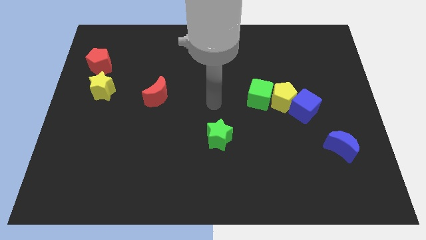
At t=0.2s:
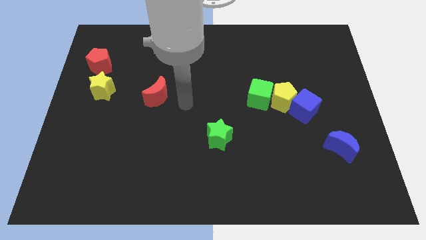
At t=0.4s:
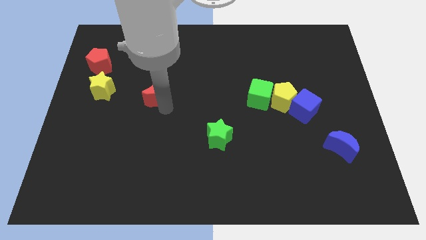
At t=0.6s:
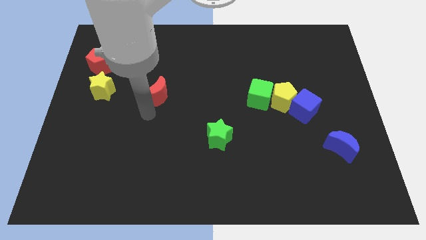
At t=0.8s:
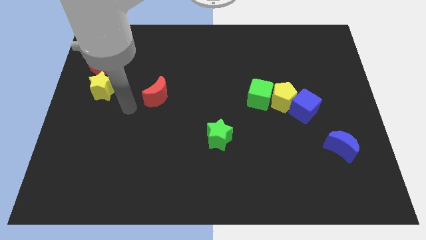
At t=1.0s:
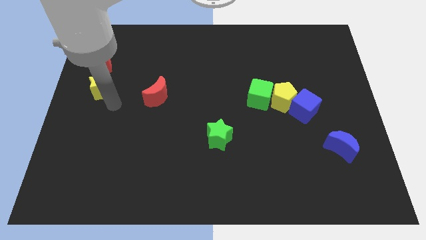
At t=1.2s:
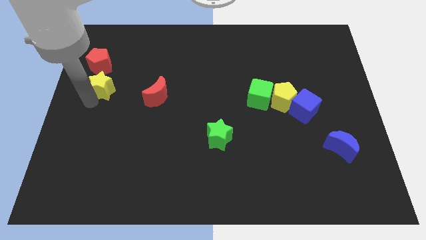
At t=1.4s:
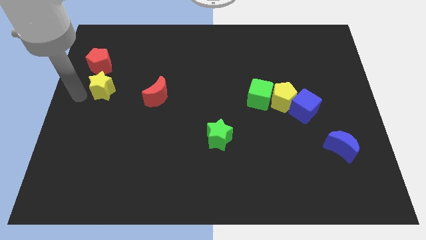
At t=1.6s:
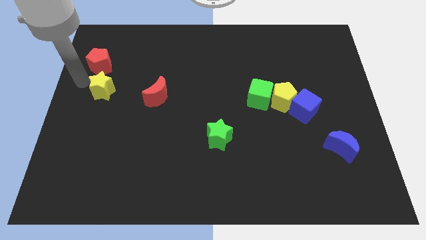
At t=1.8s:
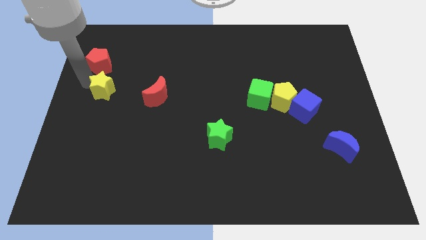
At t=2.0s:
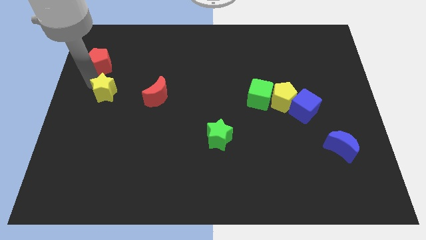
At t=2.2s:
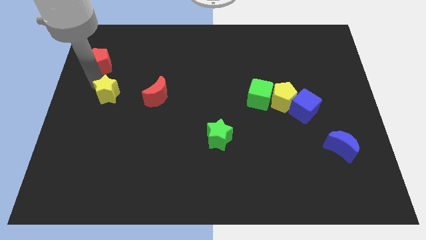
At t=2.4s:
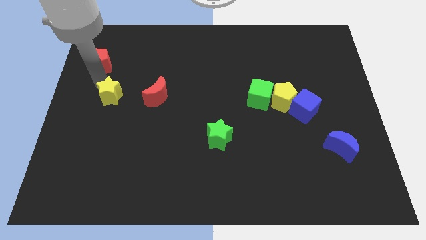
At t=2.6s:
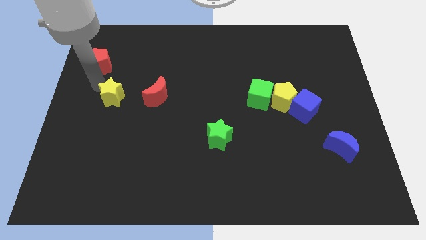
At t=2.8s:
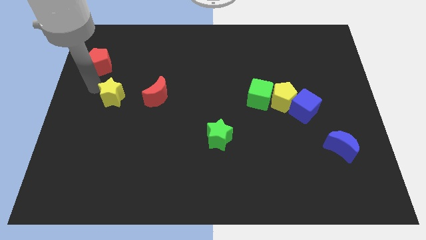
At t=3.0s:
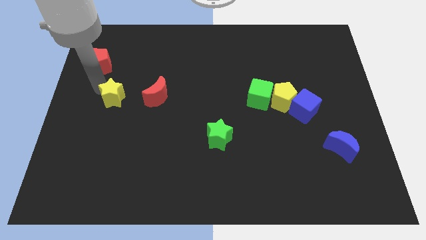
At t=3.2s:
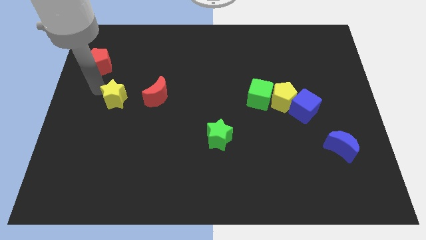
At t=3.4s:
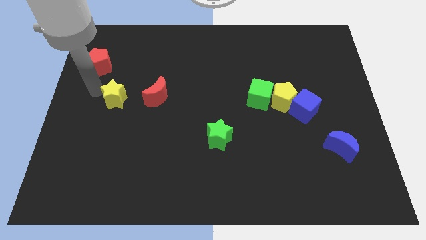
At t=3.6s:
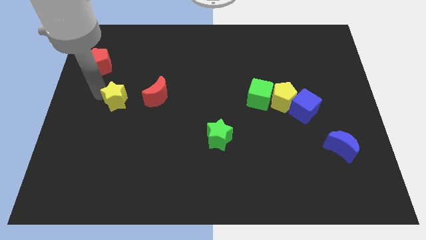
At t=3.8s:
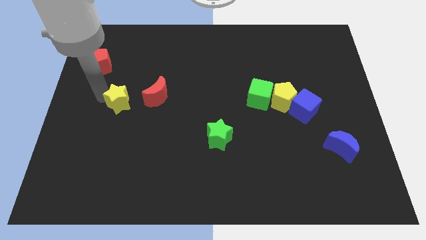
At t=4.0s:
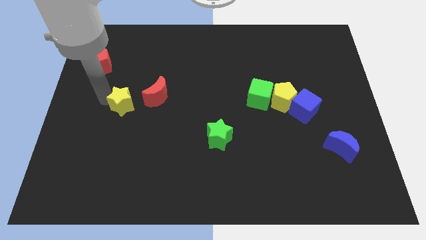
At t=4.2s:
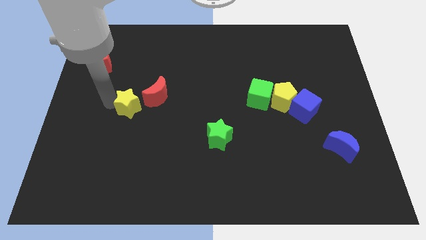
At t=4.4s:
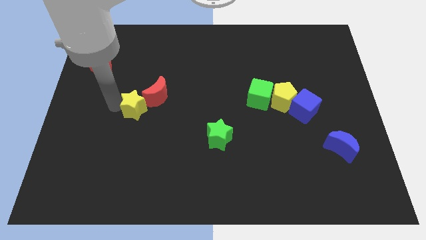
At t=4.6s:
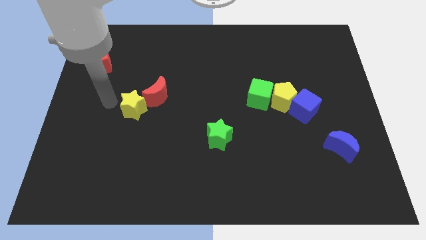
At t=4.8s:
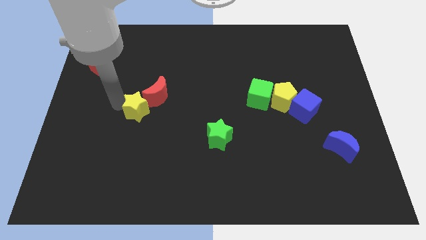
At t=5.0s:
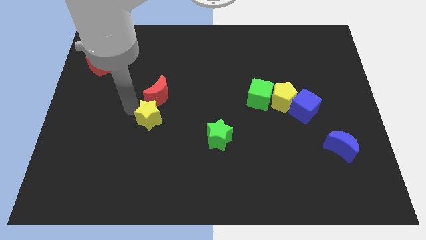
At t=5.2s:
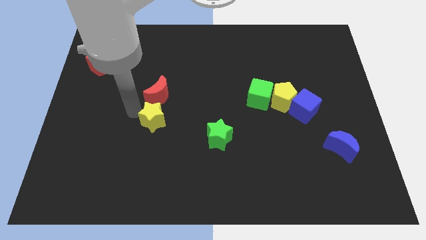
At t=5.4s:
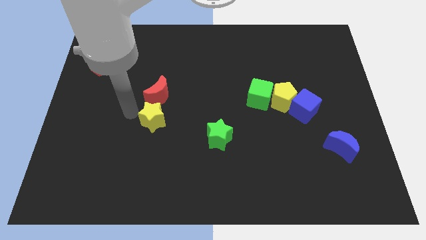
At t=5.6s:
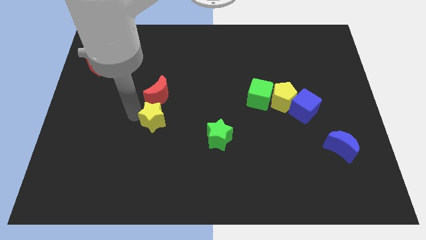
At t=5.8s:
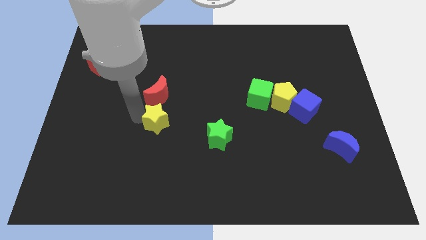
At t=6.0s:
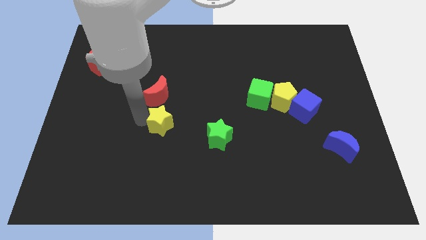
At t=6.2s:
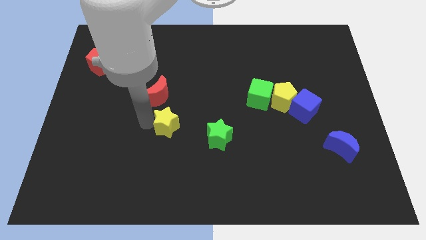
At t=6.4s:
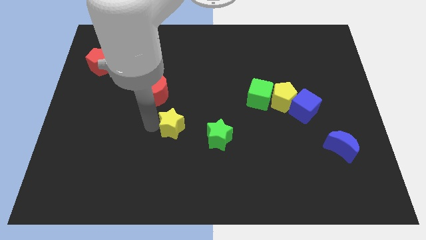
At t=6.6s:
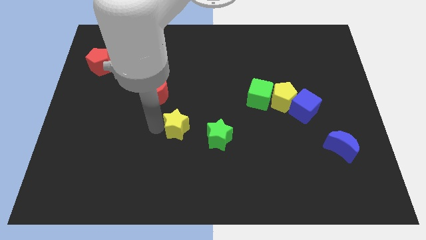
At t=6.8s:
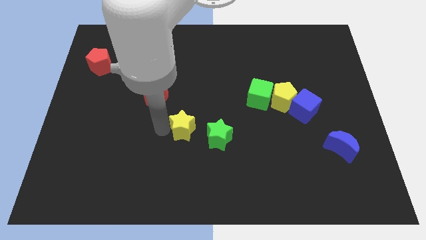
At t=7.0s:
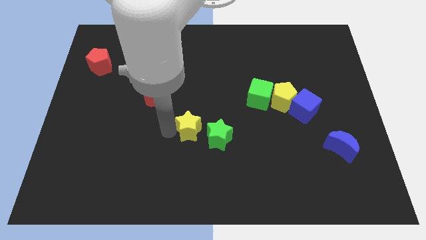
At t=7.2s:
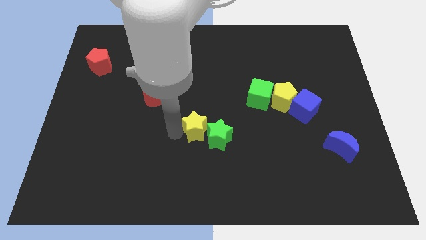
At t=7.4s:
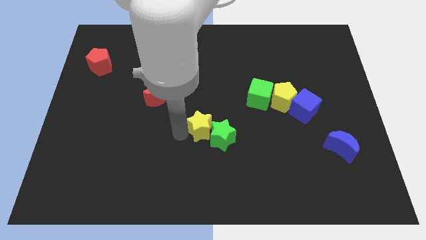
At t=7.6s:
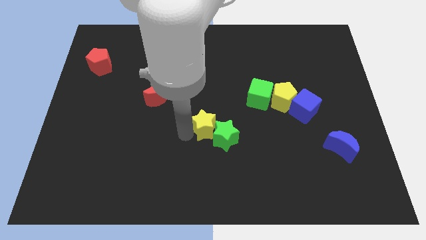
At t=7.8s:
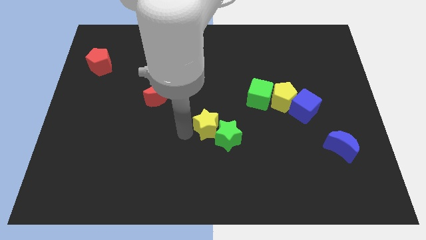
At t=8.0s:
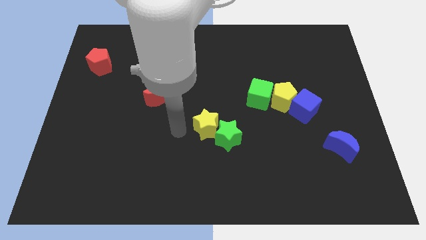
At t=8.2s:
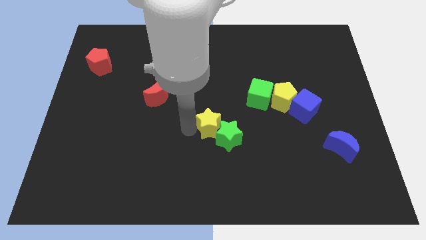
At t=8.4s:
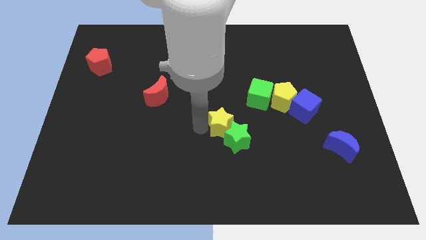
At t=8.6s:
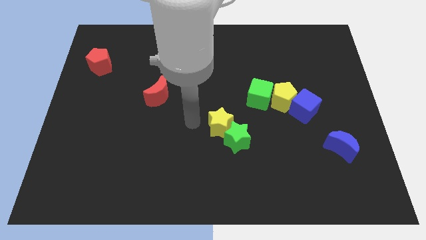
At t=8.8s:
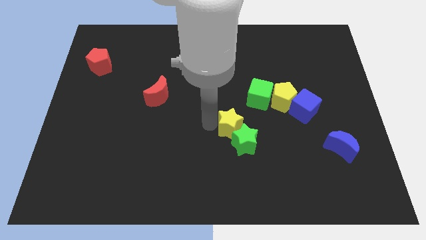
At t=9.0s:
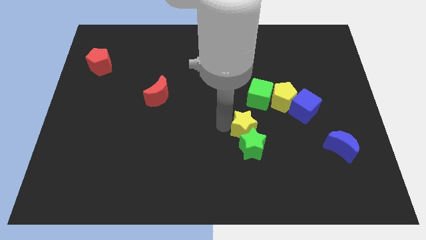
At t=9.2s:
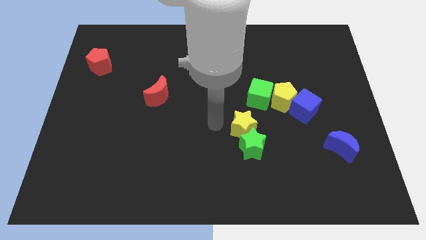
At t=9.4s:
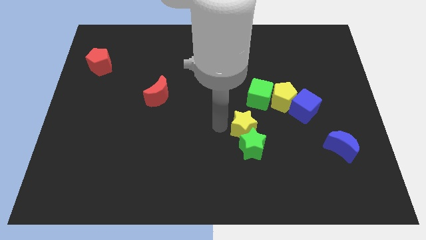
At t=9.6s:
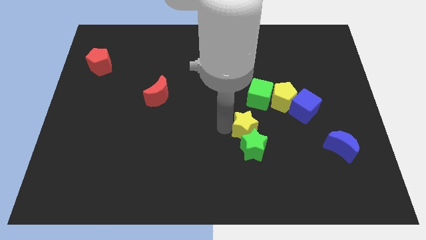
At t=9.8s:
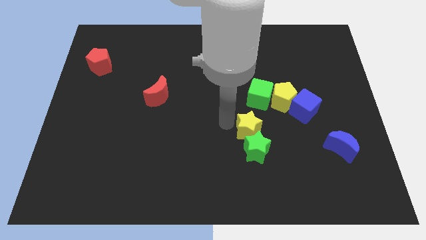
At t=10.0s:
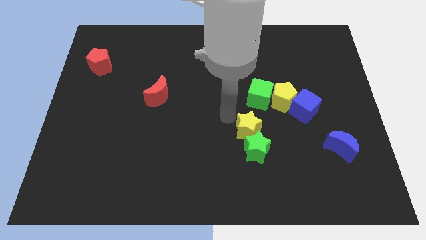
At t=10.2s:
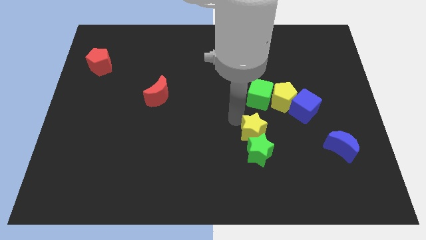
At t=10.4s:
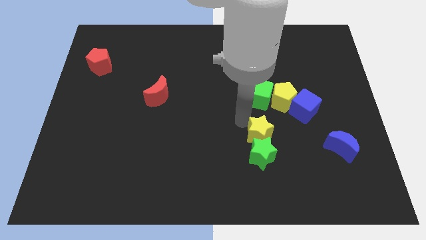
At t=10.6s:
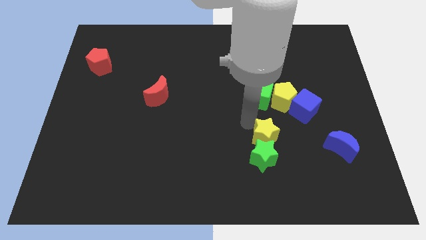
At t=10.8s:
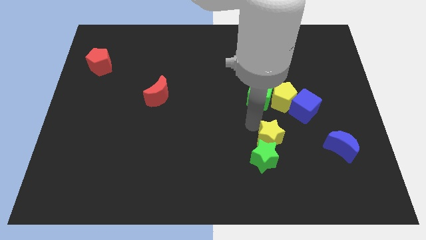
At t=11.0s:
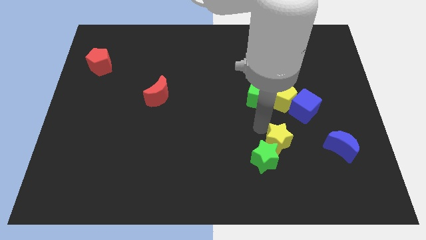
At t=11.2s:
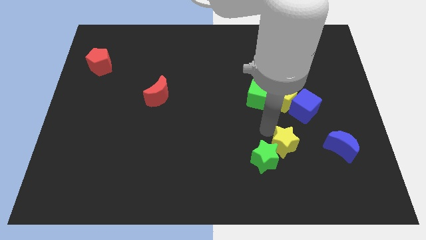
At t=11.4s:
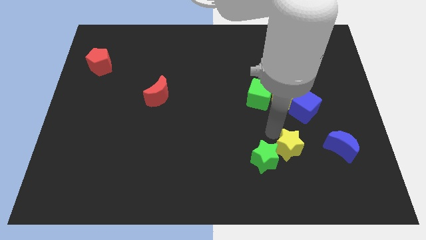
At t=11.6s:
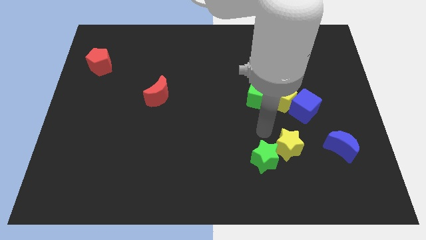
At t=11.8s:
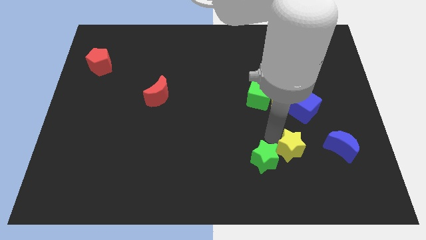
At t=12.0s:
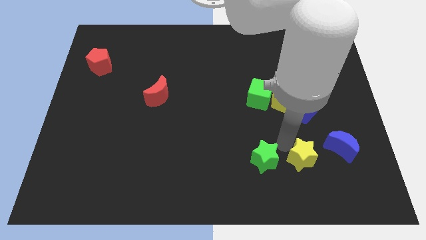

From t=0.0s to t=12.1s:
slide the yellow star diagonally down and to the left of the blue moon

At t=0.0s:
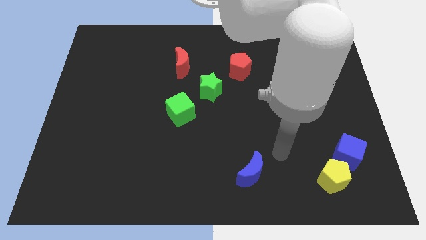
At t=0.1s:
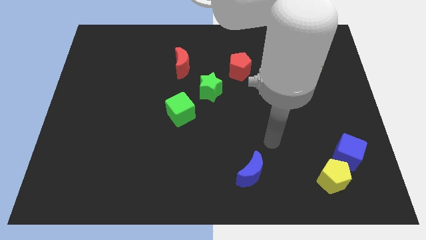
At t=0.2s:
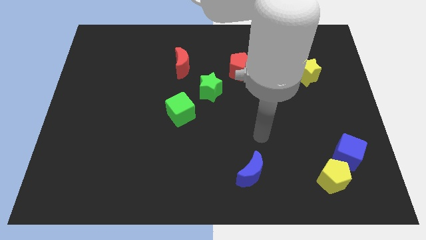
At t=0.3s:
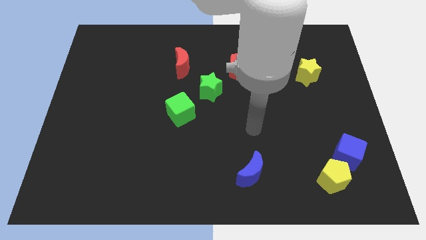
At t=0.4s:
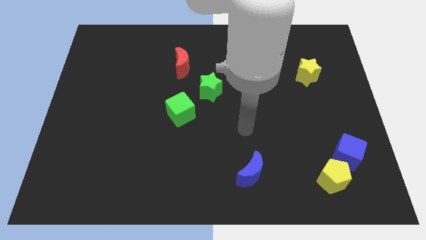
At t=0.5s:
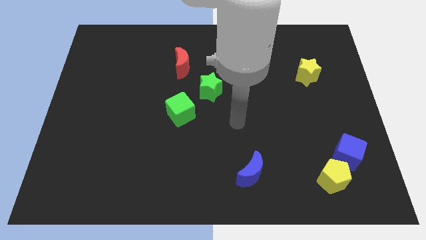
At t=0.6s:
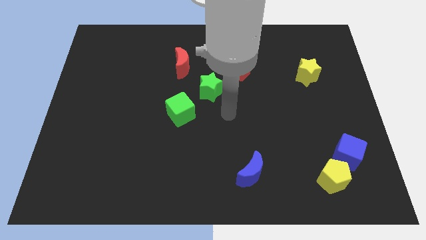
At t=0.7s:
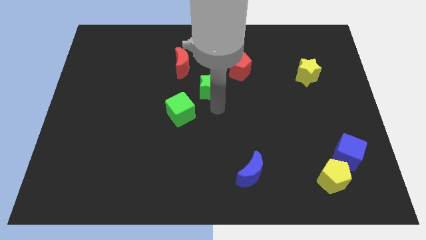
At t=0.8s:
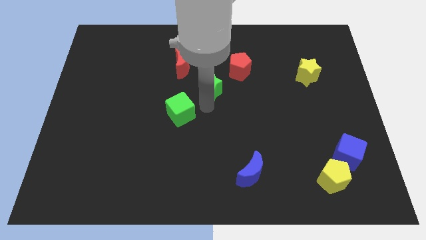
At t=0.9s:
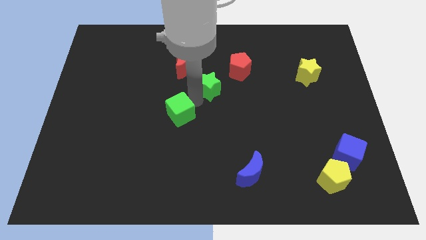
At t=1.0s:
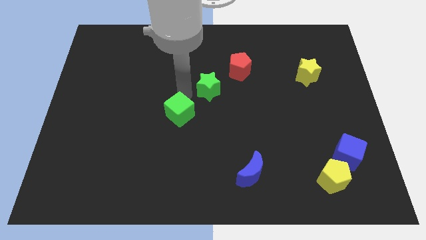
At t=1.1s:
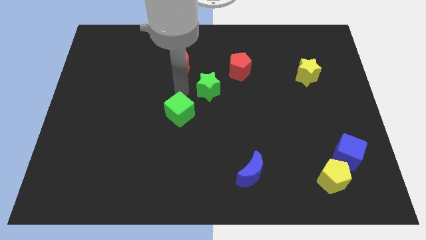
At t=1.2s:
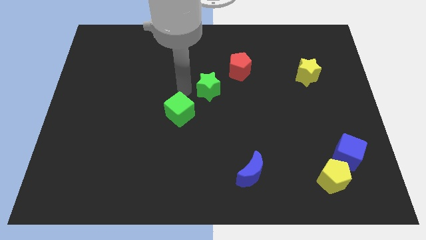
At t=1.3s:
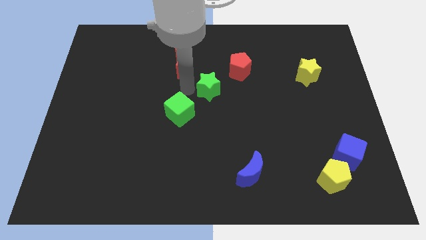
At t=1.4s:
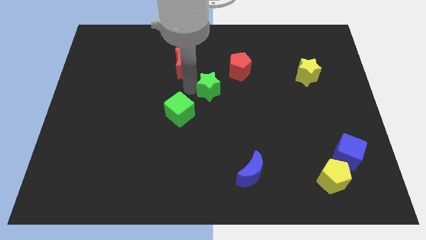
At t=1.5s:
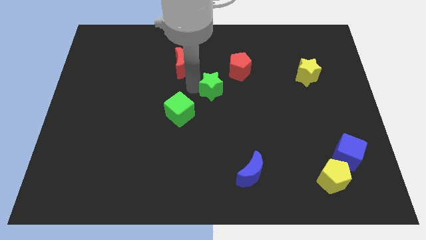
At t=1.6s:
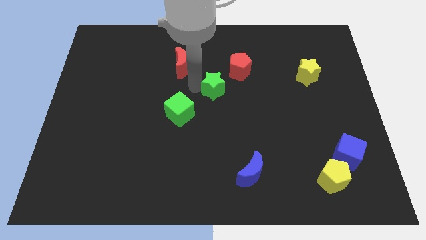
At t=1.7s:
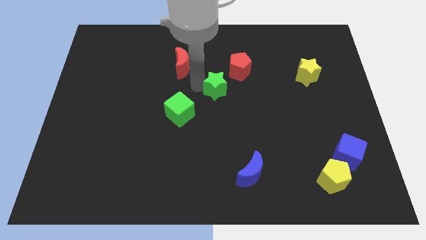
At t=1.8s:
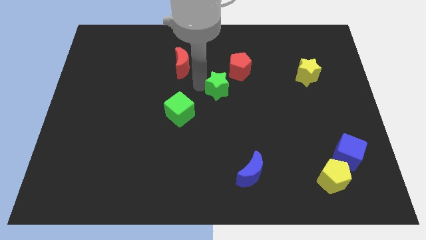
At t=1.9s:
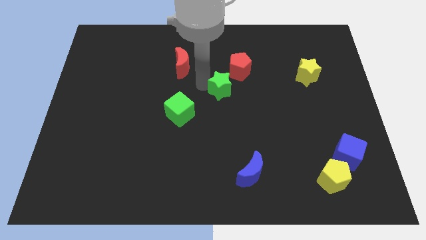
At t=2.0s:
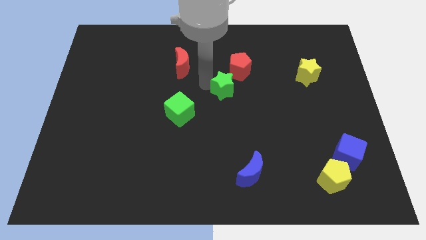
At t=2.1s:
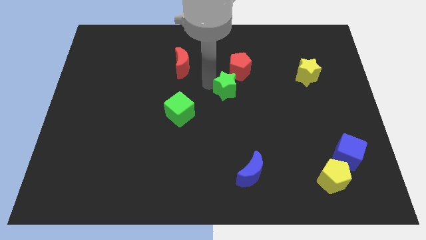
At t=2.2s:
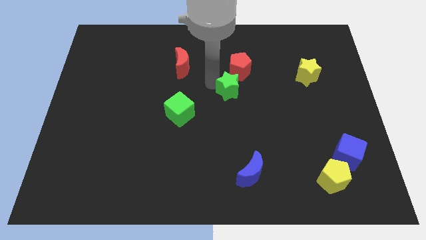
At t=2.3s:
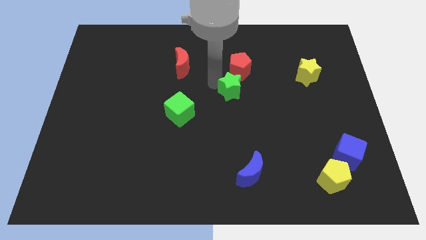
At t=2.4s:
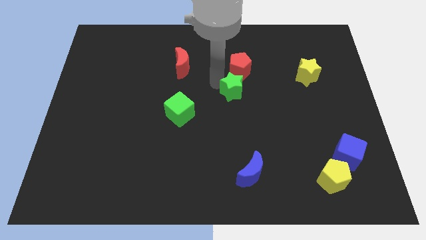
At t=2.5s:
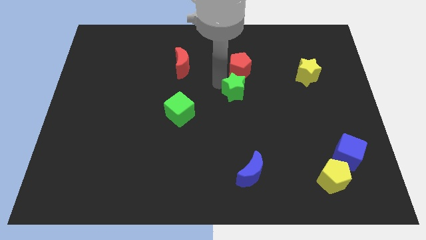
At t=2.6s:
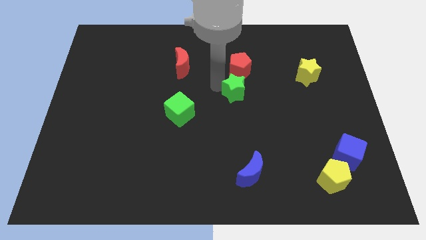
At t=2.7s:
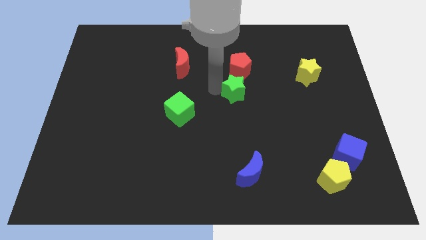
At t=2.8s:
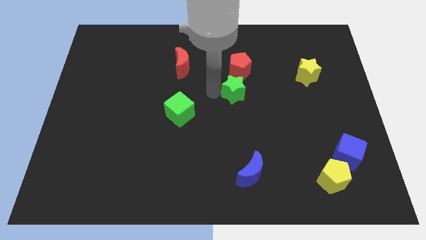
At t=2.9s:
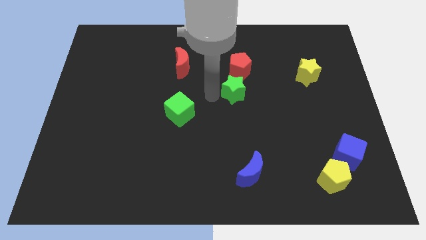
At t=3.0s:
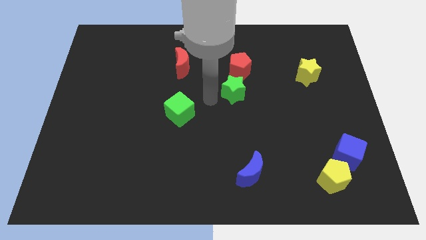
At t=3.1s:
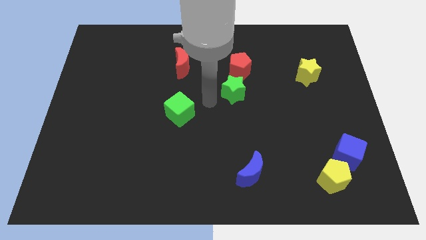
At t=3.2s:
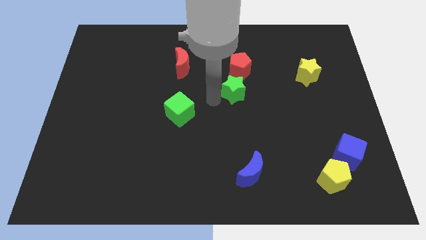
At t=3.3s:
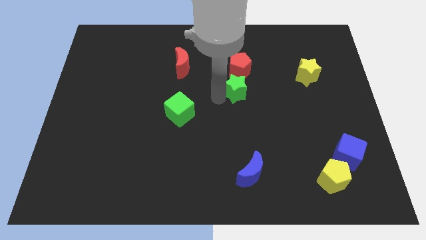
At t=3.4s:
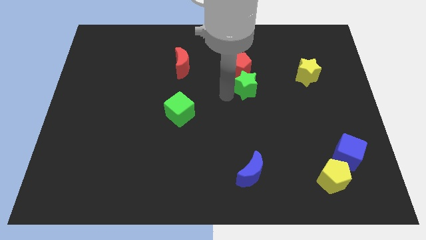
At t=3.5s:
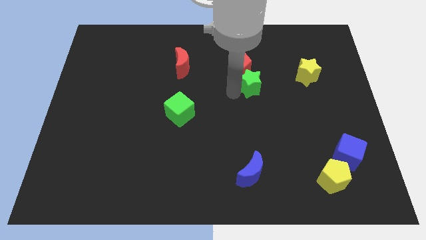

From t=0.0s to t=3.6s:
move the green star left of the yellow star
